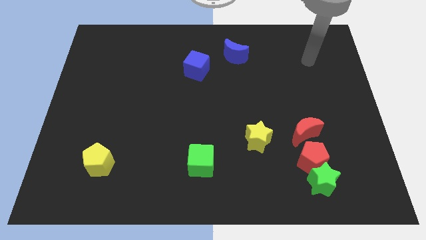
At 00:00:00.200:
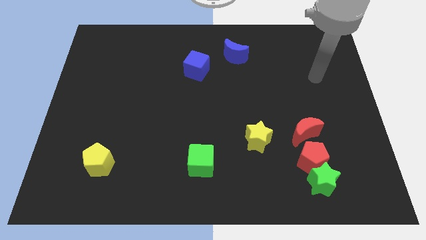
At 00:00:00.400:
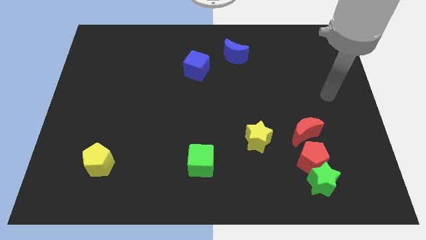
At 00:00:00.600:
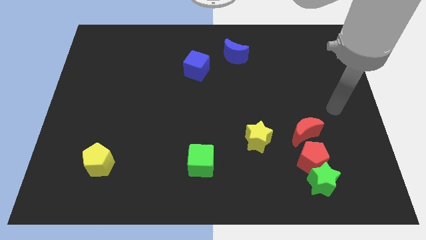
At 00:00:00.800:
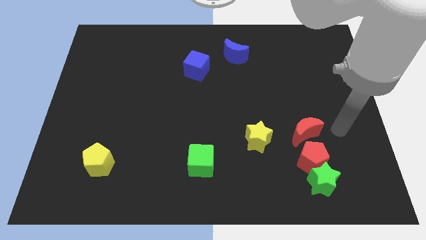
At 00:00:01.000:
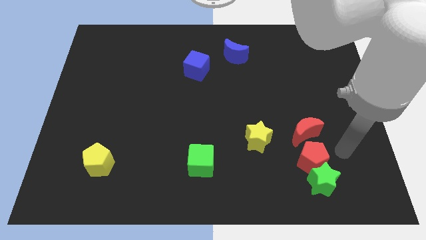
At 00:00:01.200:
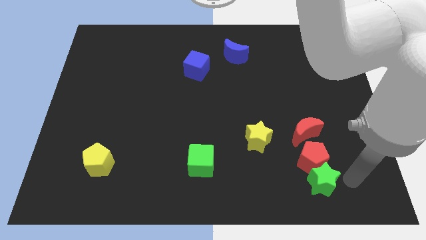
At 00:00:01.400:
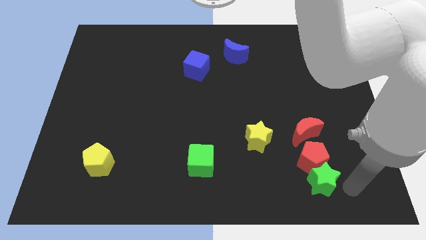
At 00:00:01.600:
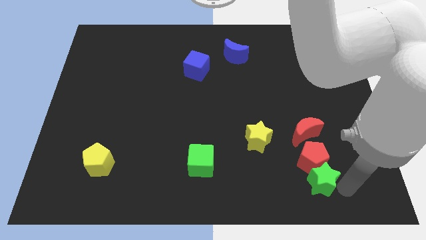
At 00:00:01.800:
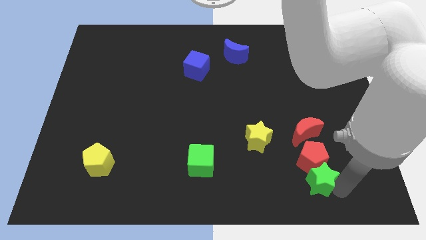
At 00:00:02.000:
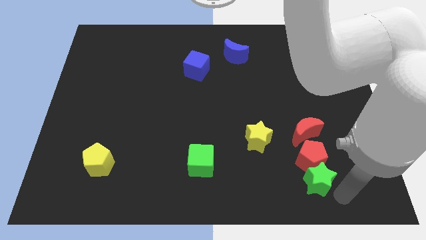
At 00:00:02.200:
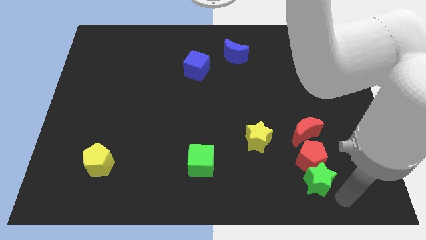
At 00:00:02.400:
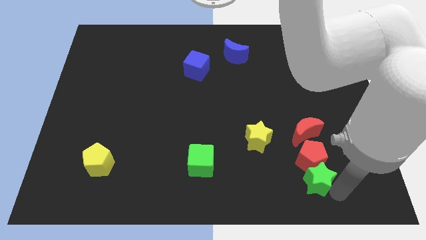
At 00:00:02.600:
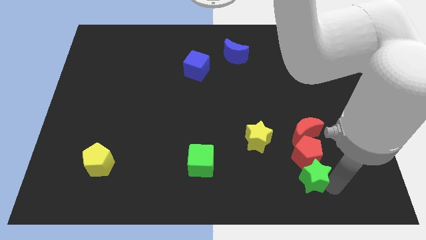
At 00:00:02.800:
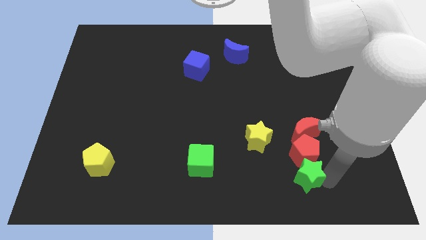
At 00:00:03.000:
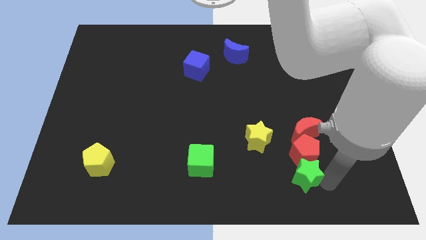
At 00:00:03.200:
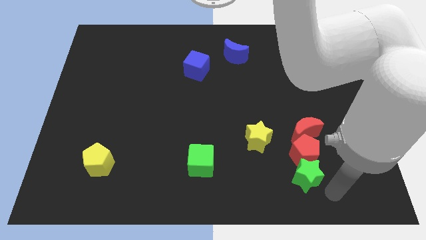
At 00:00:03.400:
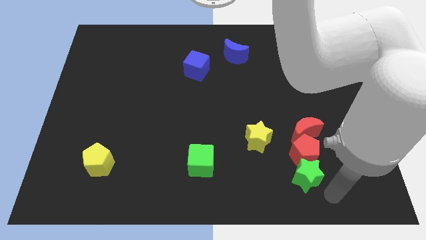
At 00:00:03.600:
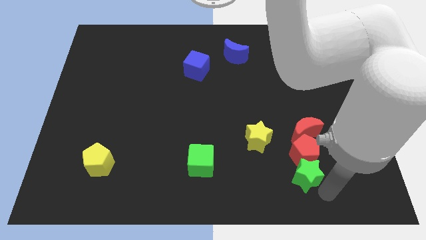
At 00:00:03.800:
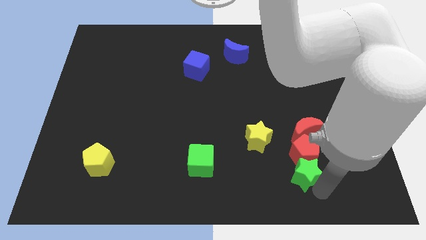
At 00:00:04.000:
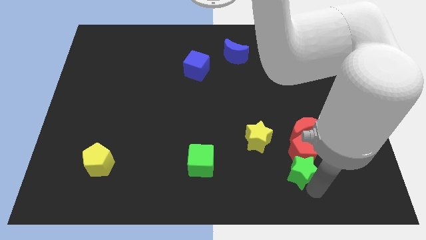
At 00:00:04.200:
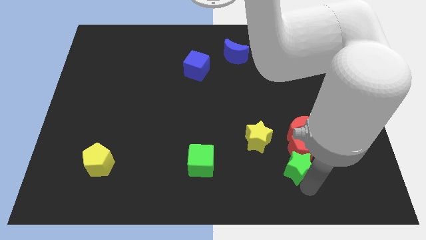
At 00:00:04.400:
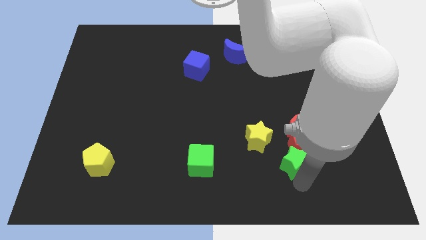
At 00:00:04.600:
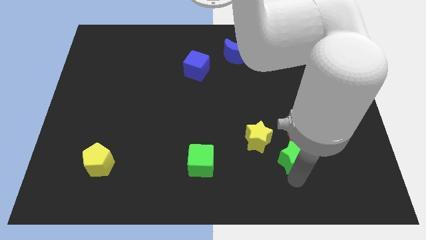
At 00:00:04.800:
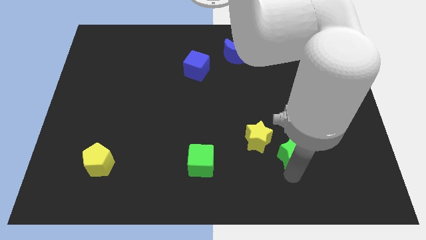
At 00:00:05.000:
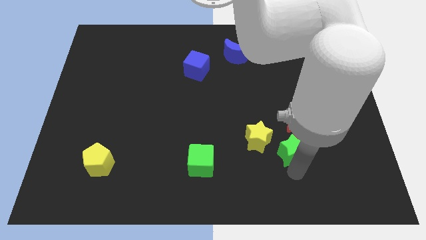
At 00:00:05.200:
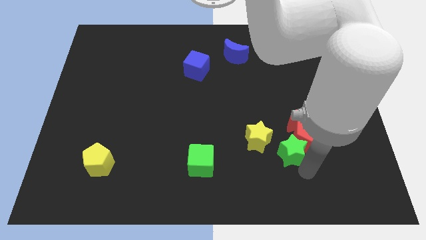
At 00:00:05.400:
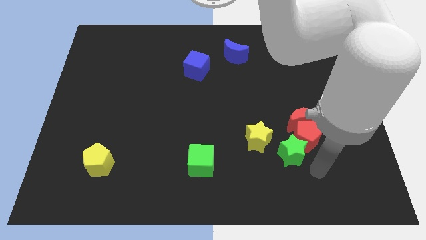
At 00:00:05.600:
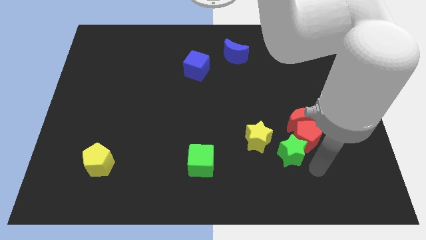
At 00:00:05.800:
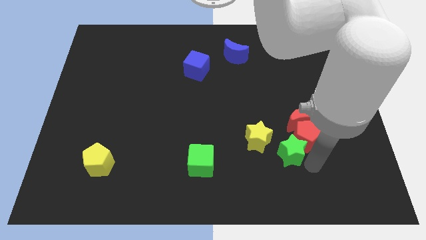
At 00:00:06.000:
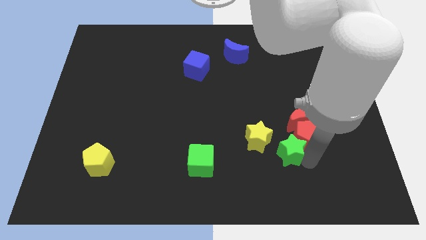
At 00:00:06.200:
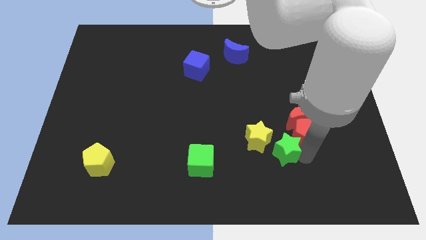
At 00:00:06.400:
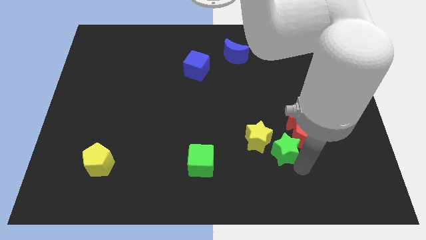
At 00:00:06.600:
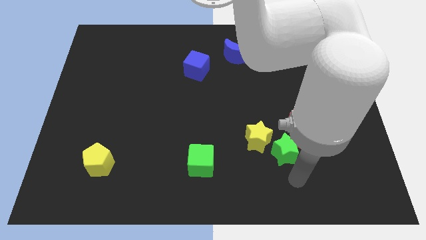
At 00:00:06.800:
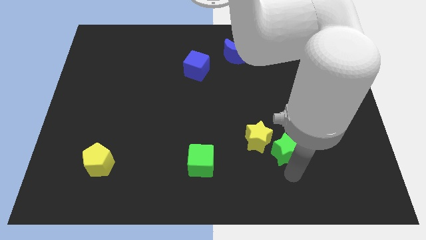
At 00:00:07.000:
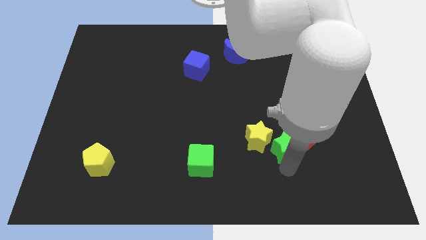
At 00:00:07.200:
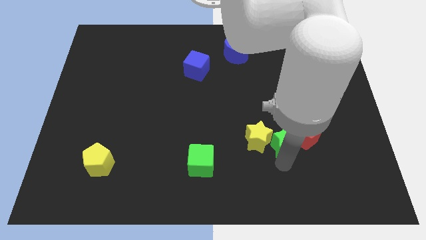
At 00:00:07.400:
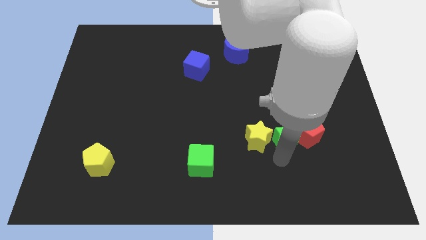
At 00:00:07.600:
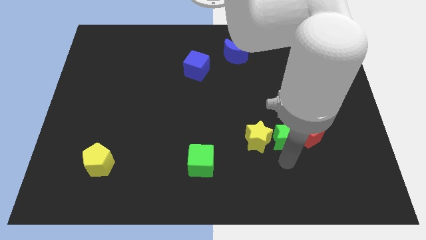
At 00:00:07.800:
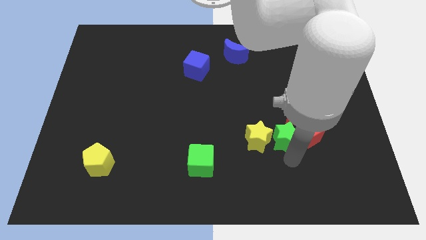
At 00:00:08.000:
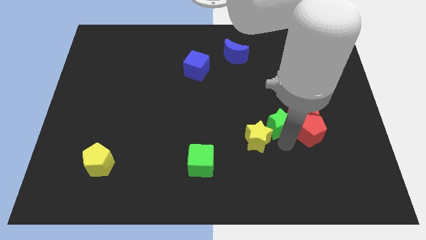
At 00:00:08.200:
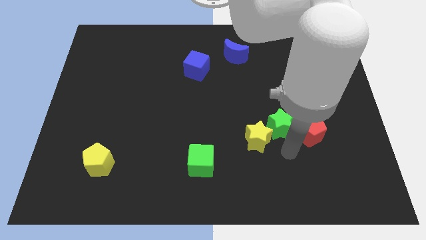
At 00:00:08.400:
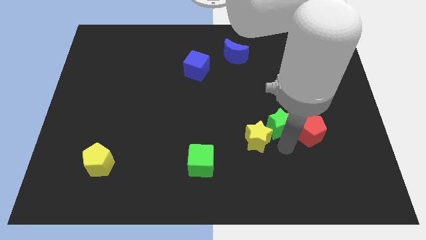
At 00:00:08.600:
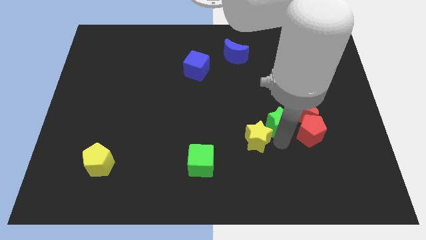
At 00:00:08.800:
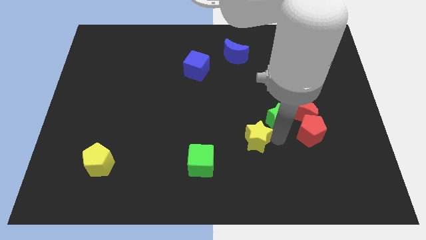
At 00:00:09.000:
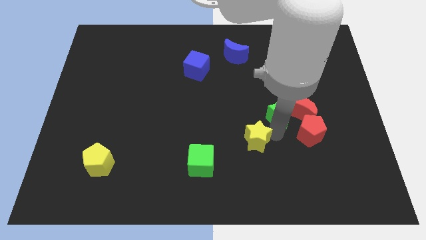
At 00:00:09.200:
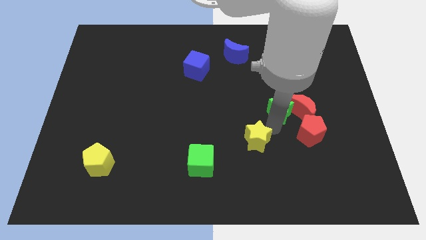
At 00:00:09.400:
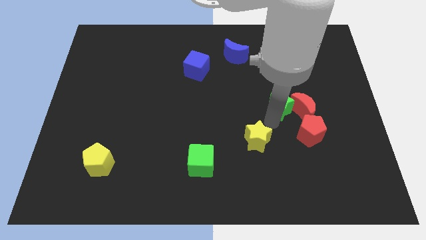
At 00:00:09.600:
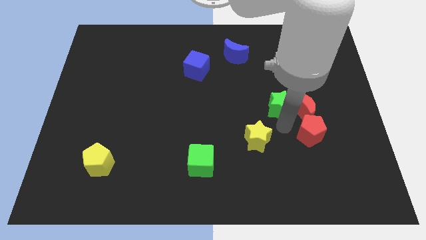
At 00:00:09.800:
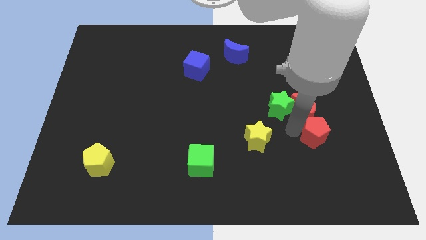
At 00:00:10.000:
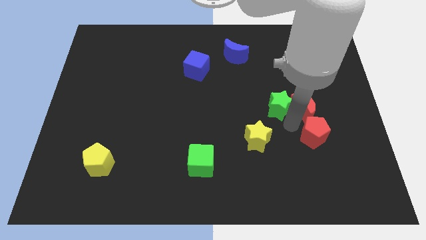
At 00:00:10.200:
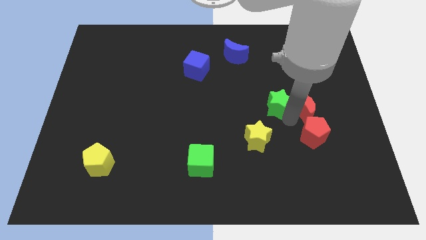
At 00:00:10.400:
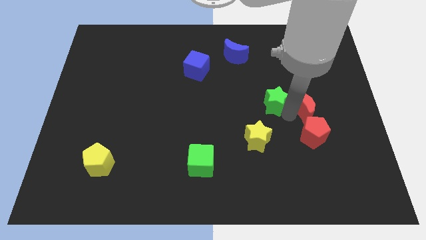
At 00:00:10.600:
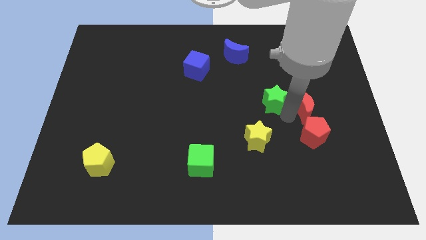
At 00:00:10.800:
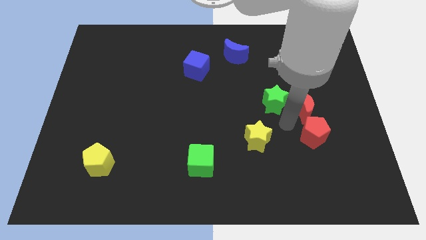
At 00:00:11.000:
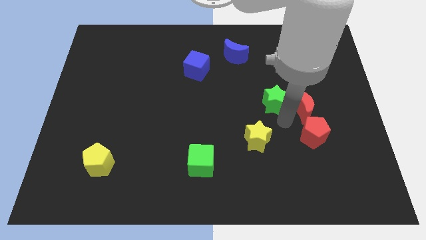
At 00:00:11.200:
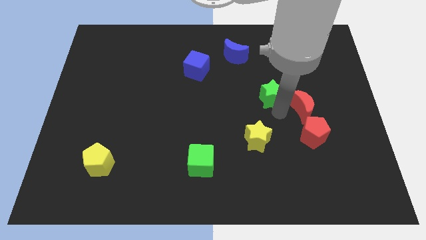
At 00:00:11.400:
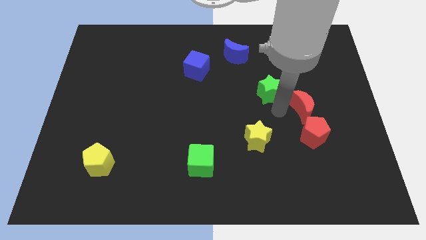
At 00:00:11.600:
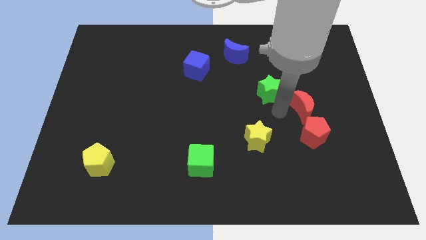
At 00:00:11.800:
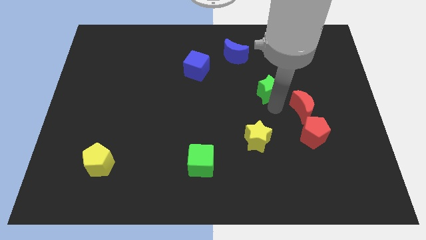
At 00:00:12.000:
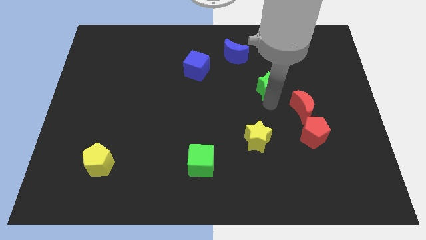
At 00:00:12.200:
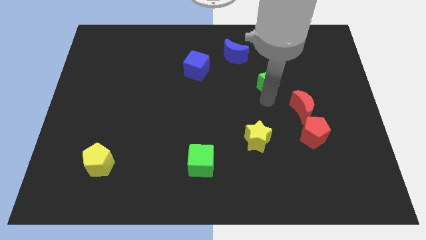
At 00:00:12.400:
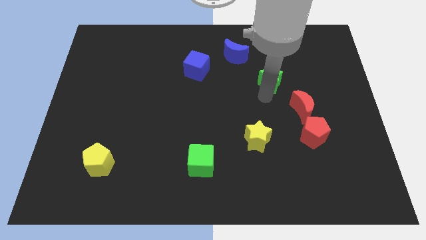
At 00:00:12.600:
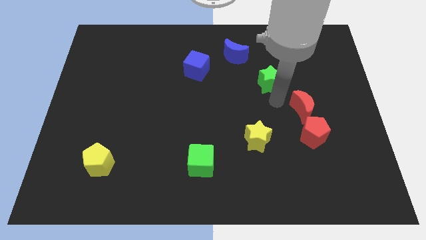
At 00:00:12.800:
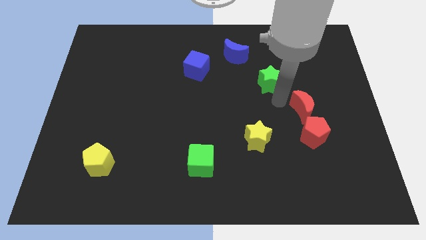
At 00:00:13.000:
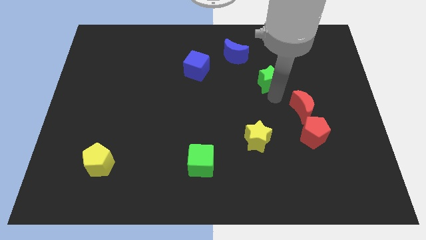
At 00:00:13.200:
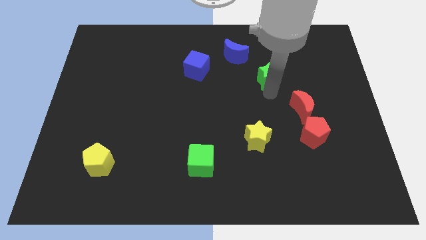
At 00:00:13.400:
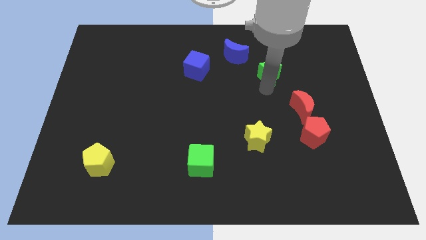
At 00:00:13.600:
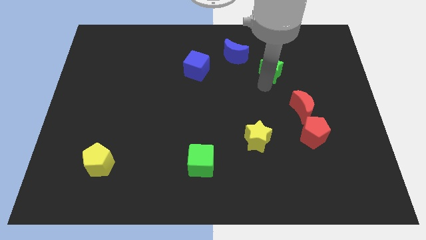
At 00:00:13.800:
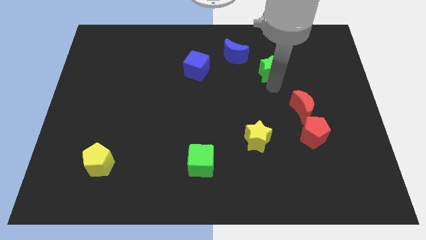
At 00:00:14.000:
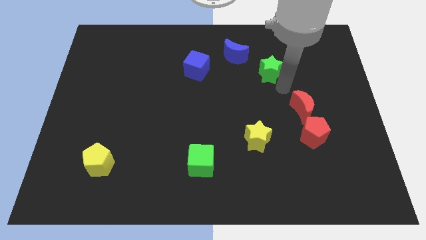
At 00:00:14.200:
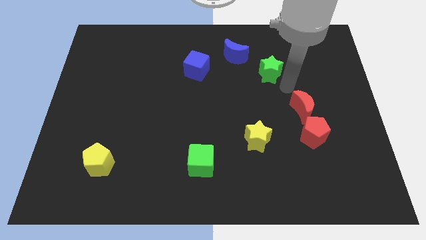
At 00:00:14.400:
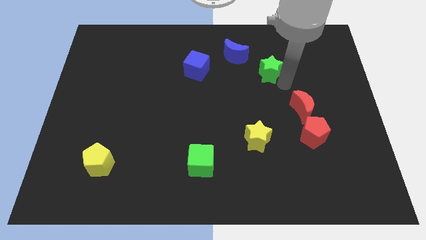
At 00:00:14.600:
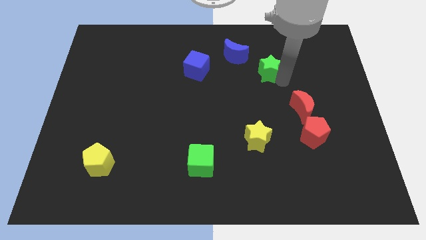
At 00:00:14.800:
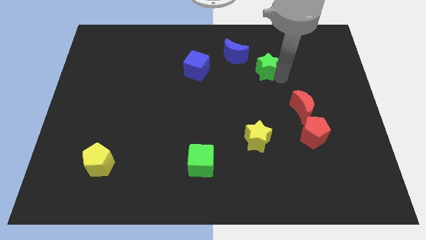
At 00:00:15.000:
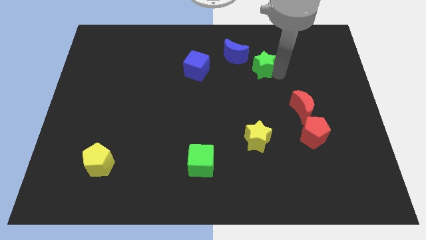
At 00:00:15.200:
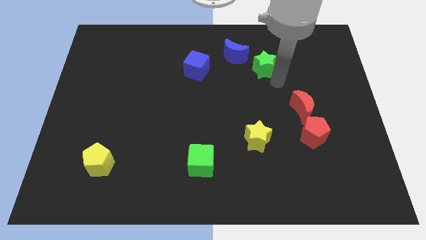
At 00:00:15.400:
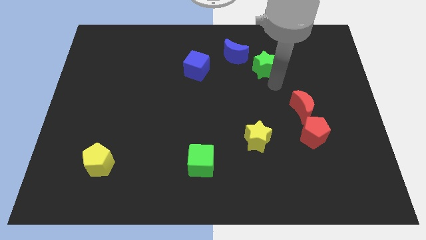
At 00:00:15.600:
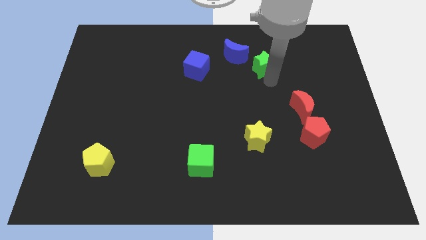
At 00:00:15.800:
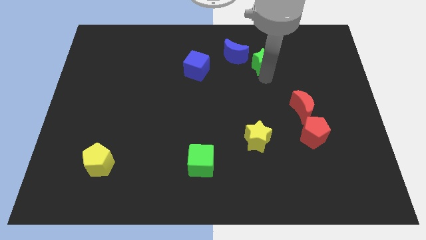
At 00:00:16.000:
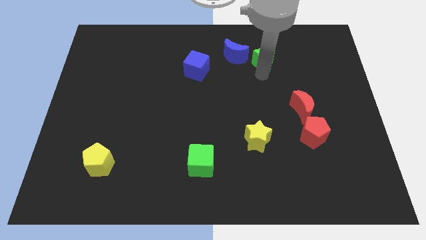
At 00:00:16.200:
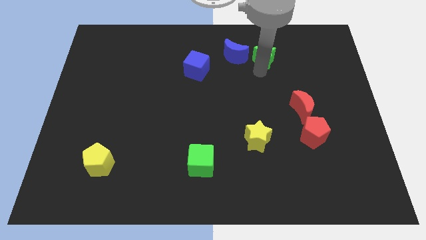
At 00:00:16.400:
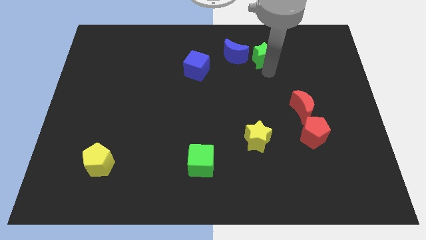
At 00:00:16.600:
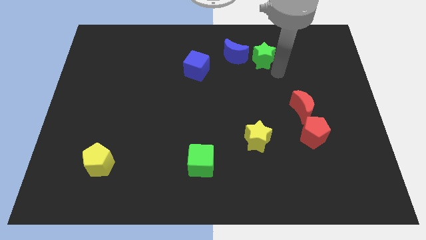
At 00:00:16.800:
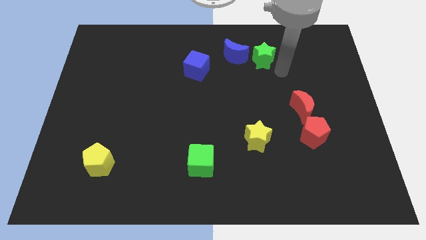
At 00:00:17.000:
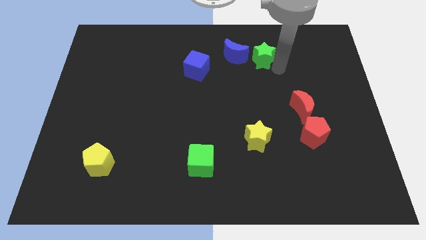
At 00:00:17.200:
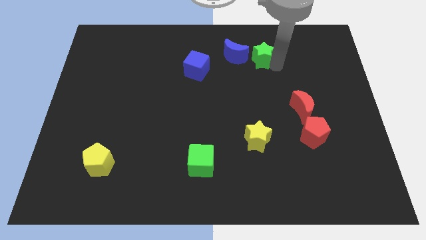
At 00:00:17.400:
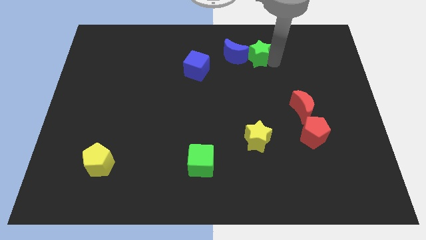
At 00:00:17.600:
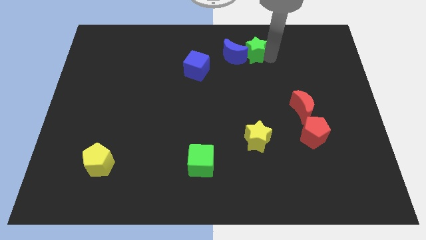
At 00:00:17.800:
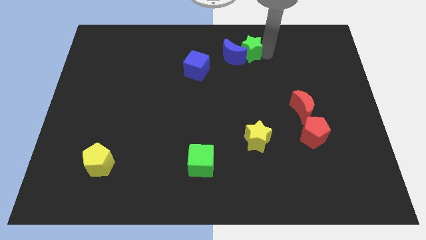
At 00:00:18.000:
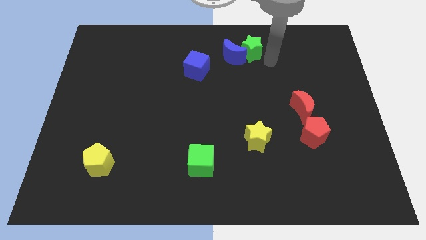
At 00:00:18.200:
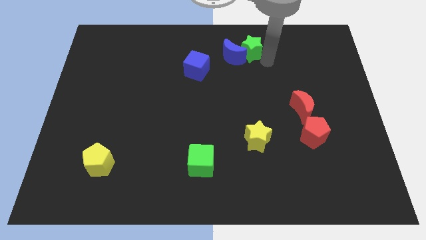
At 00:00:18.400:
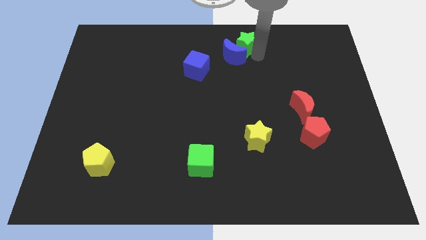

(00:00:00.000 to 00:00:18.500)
slide the green star to the towards your base
